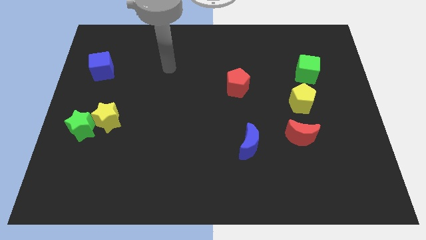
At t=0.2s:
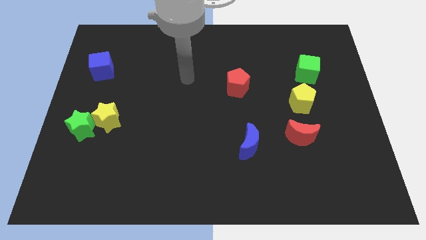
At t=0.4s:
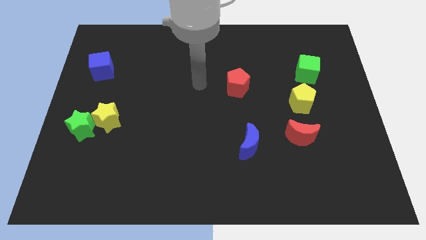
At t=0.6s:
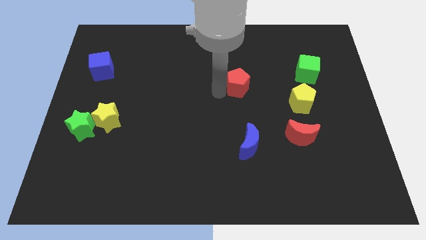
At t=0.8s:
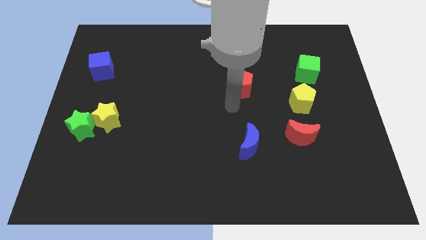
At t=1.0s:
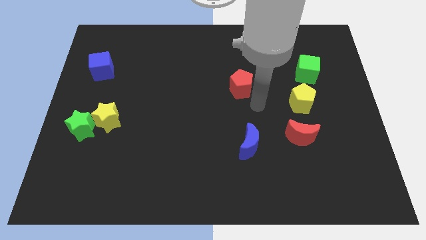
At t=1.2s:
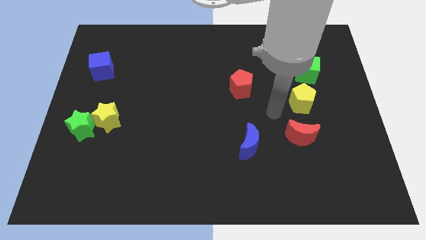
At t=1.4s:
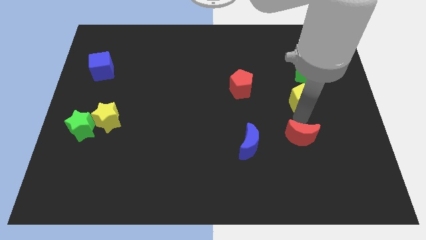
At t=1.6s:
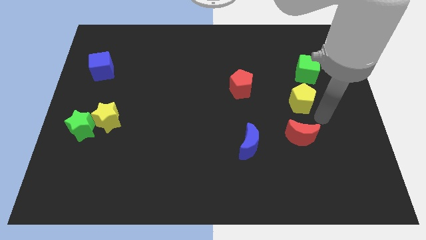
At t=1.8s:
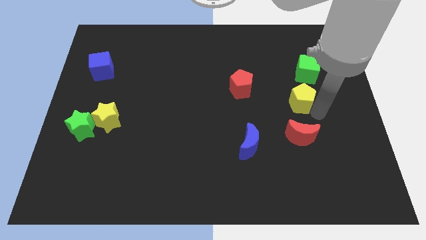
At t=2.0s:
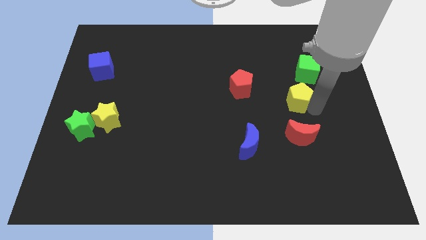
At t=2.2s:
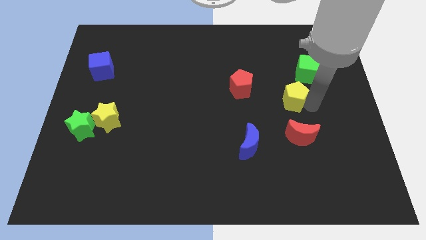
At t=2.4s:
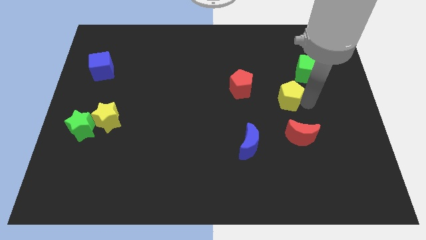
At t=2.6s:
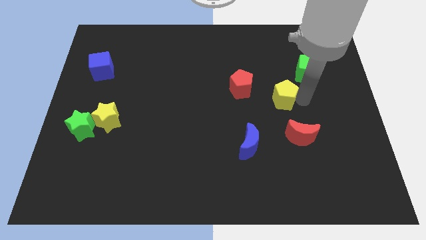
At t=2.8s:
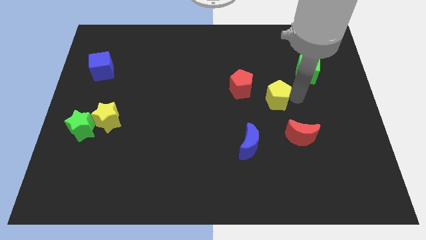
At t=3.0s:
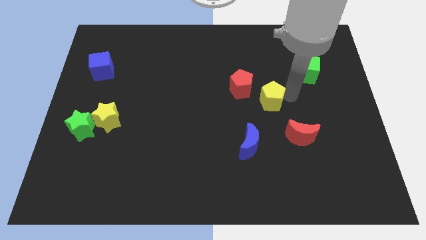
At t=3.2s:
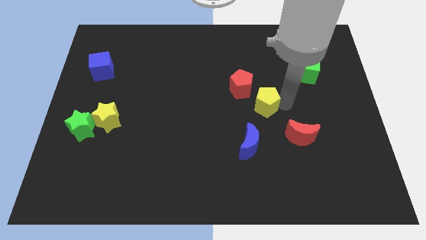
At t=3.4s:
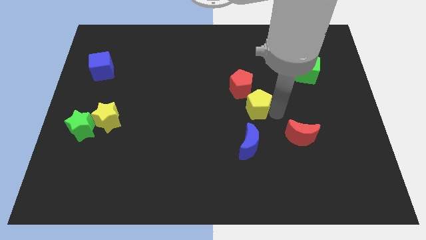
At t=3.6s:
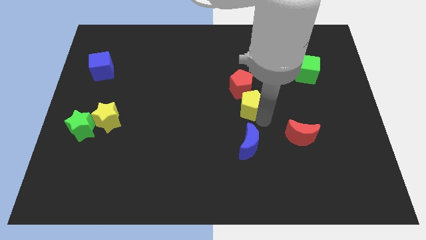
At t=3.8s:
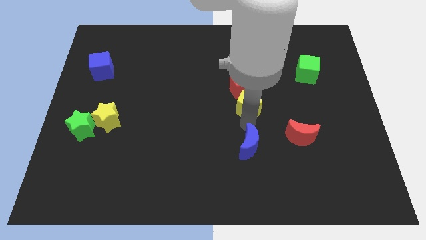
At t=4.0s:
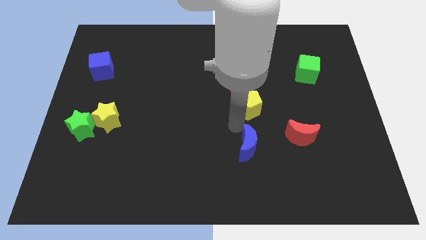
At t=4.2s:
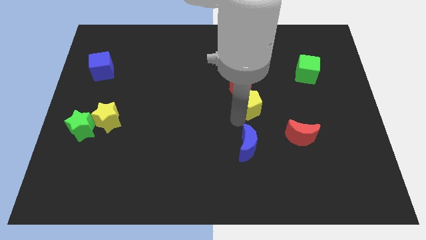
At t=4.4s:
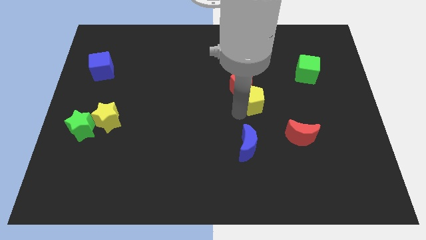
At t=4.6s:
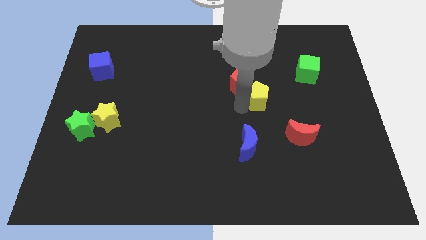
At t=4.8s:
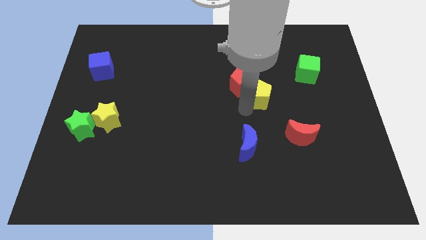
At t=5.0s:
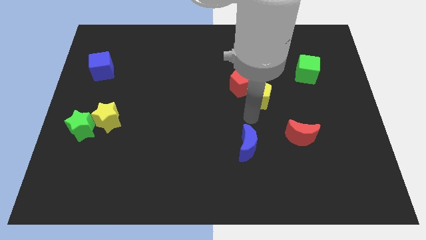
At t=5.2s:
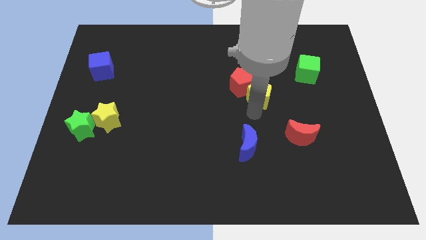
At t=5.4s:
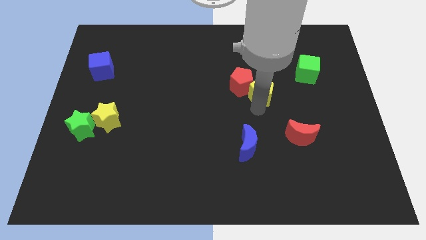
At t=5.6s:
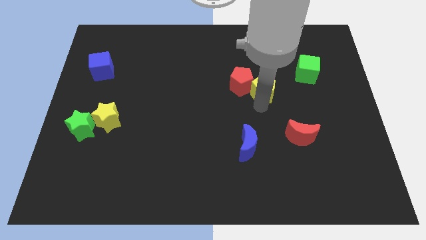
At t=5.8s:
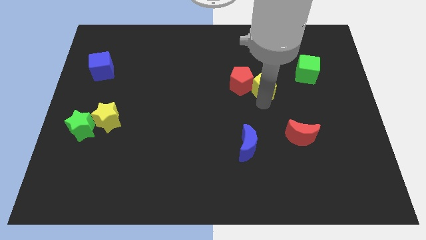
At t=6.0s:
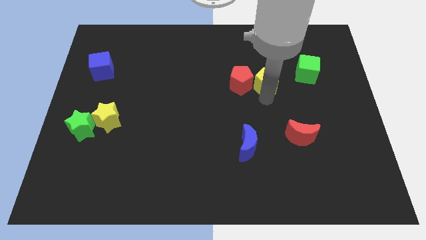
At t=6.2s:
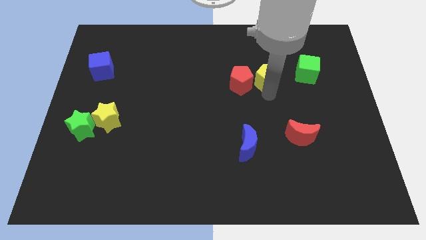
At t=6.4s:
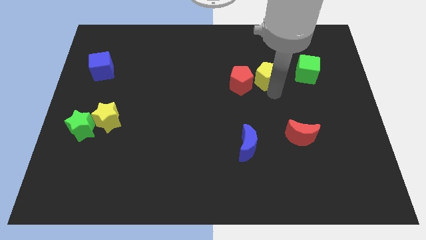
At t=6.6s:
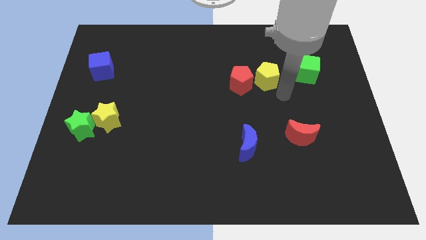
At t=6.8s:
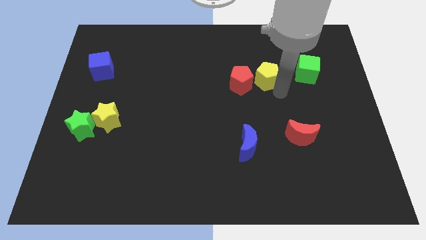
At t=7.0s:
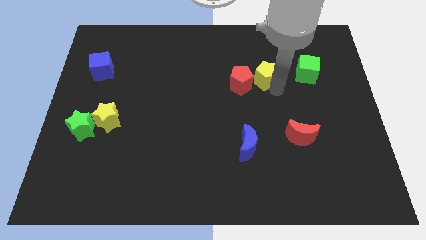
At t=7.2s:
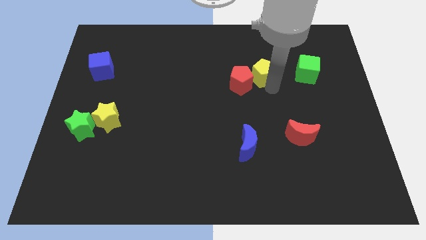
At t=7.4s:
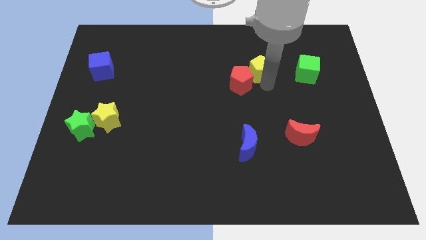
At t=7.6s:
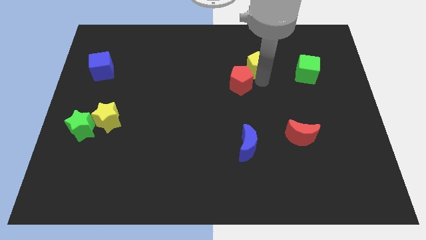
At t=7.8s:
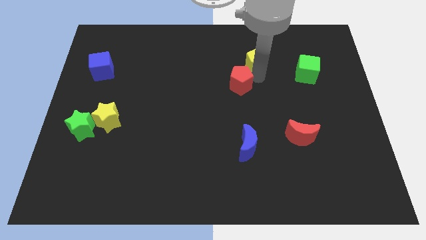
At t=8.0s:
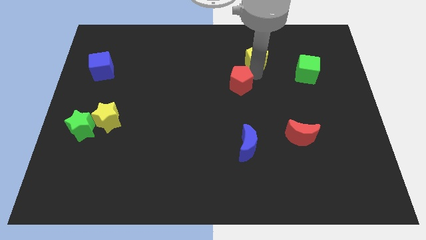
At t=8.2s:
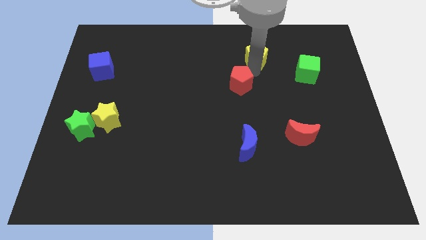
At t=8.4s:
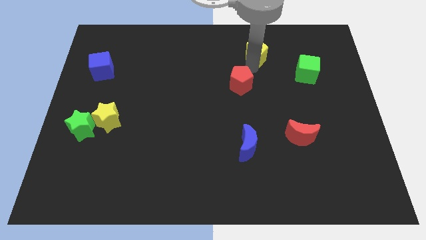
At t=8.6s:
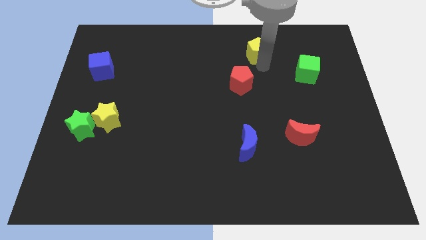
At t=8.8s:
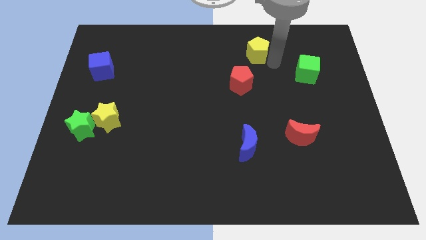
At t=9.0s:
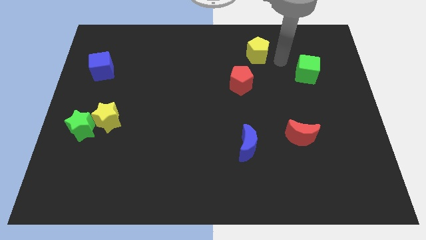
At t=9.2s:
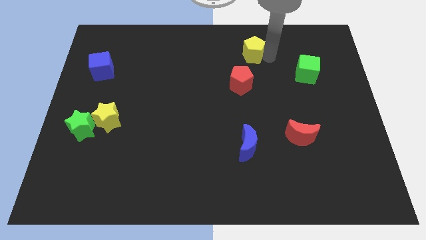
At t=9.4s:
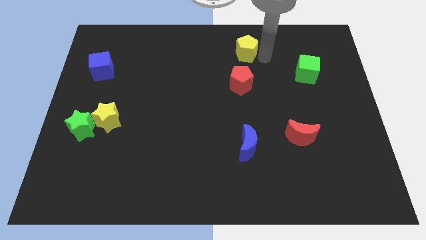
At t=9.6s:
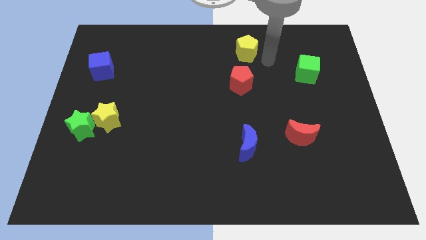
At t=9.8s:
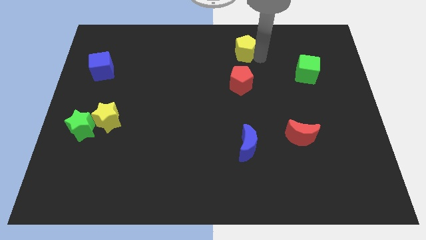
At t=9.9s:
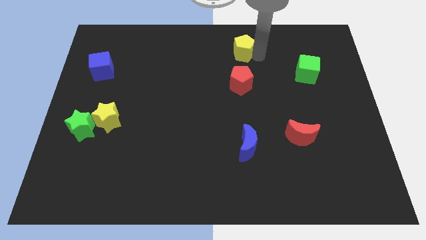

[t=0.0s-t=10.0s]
slide the yellow pentagon to the top side

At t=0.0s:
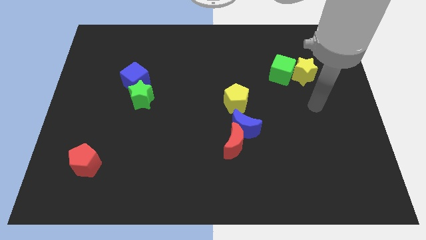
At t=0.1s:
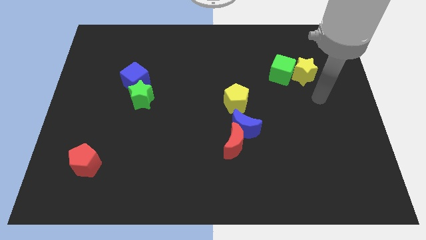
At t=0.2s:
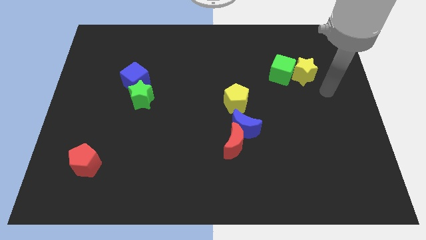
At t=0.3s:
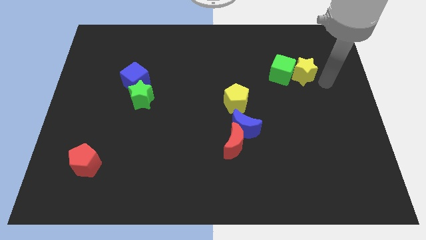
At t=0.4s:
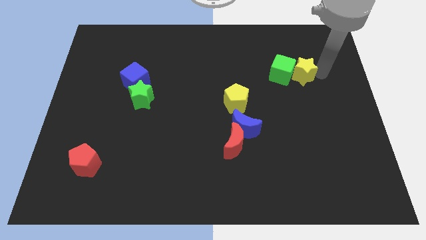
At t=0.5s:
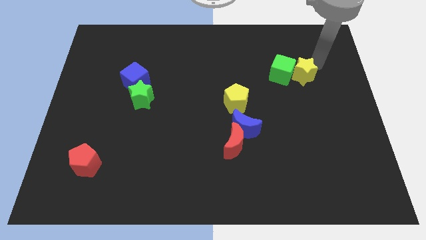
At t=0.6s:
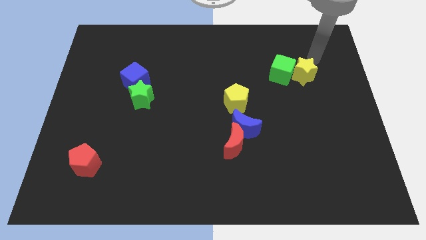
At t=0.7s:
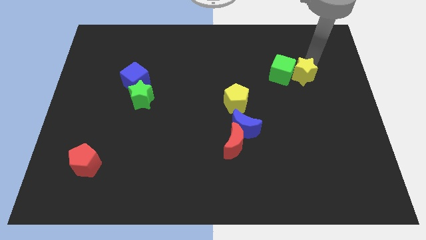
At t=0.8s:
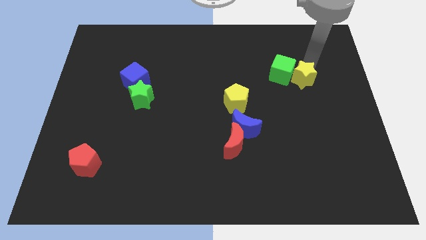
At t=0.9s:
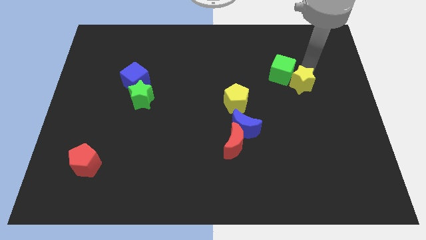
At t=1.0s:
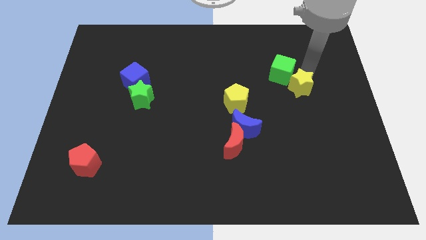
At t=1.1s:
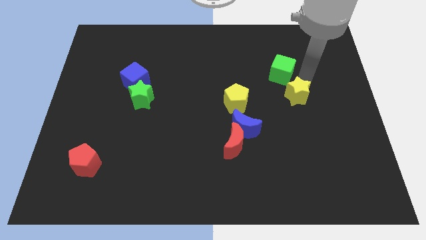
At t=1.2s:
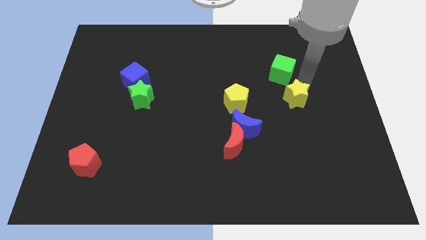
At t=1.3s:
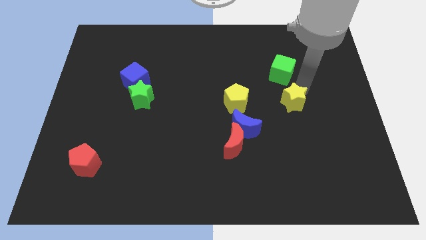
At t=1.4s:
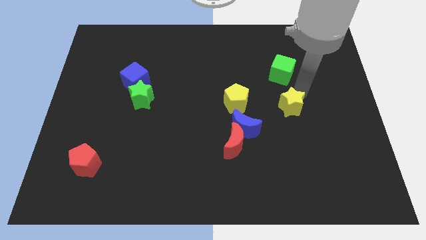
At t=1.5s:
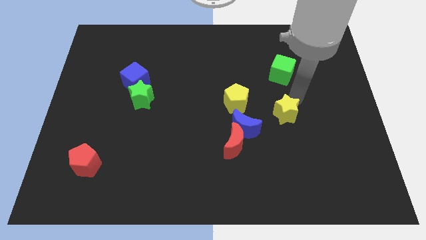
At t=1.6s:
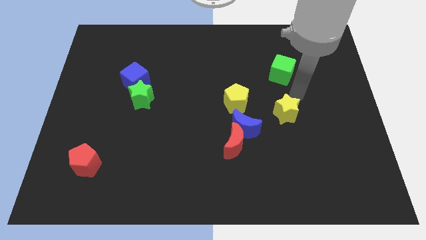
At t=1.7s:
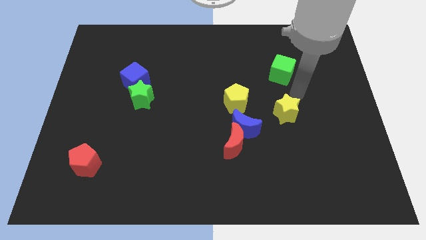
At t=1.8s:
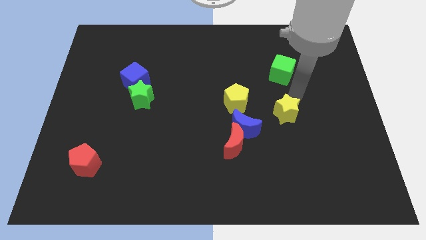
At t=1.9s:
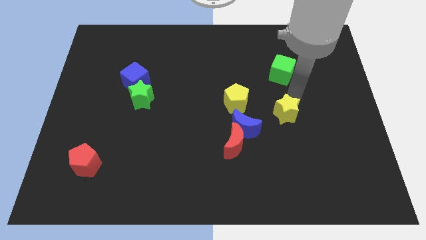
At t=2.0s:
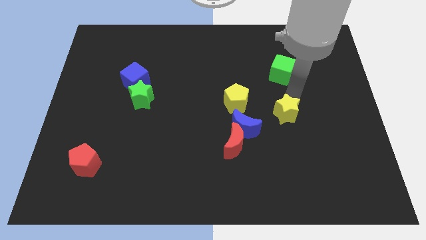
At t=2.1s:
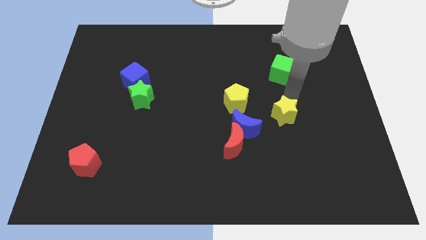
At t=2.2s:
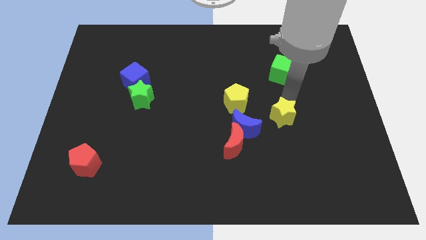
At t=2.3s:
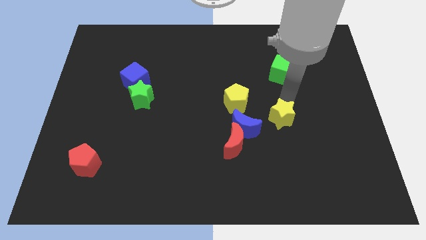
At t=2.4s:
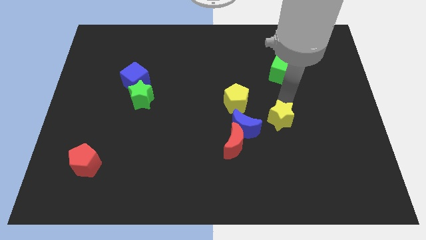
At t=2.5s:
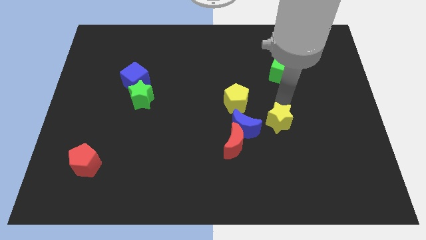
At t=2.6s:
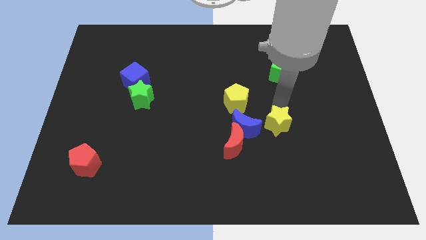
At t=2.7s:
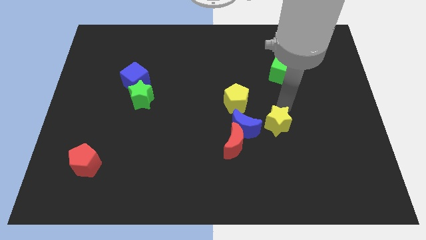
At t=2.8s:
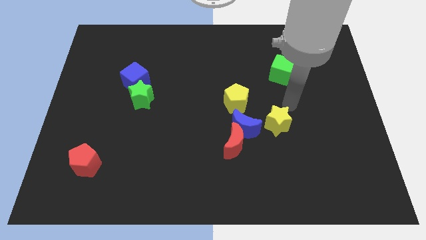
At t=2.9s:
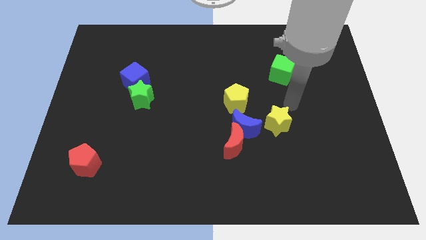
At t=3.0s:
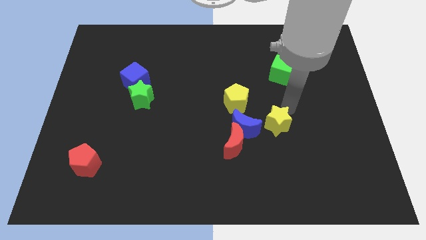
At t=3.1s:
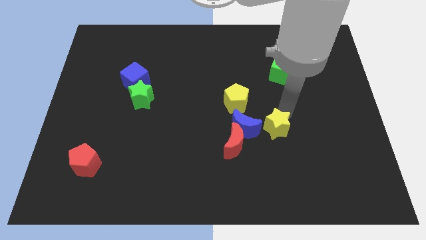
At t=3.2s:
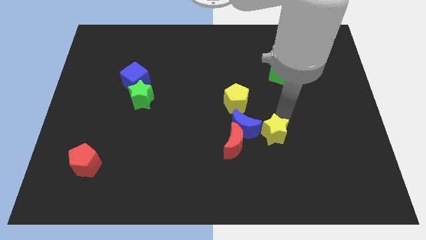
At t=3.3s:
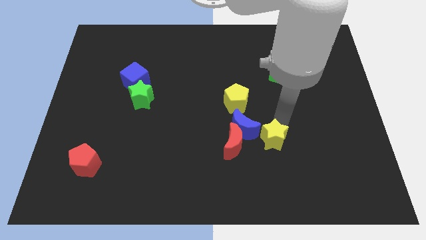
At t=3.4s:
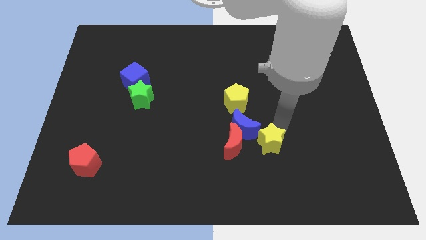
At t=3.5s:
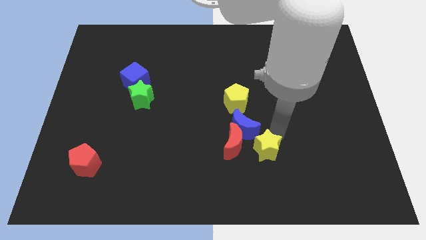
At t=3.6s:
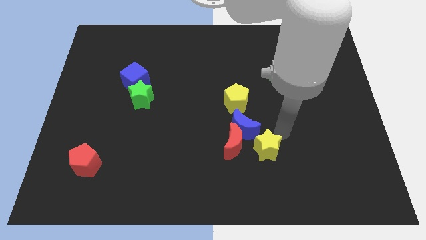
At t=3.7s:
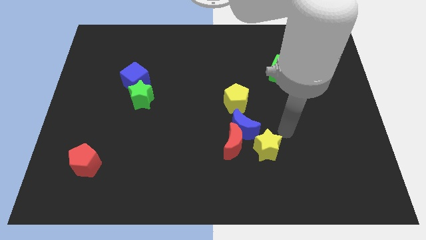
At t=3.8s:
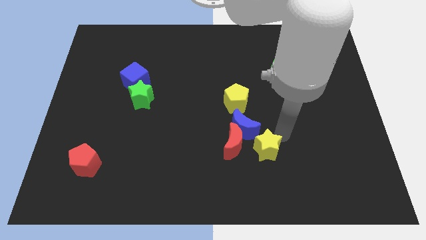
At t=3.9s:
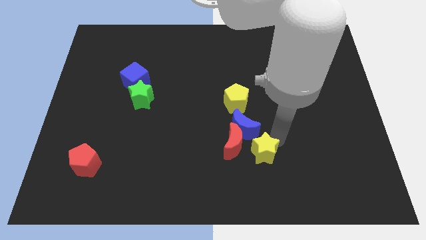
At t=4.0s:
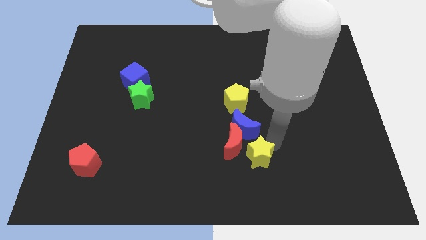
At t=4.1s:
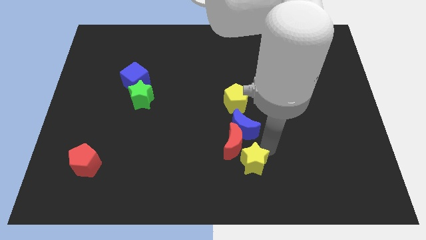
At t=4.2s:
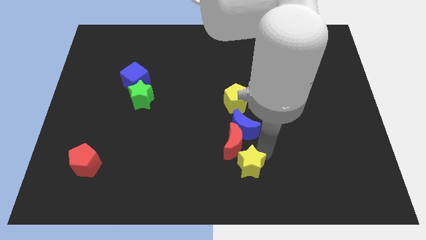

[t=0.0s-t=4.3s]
move the yellow star to the bottom side
